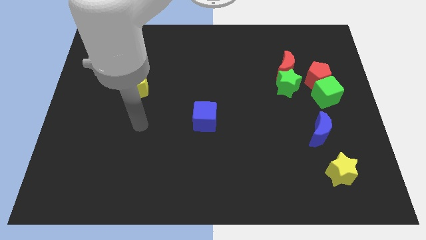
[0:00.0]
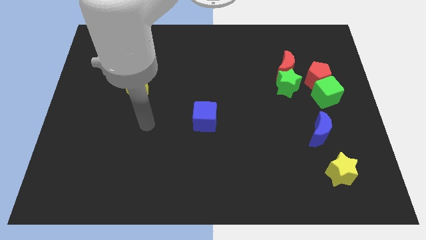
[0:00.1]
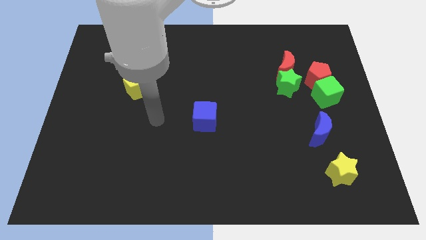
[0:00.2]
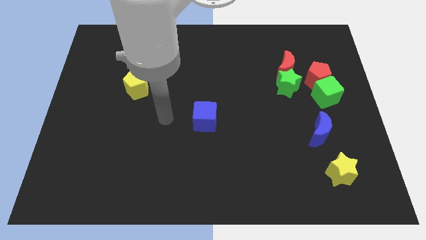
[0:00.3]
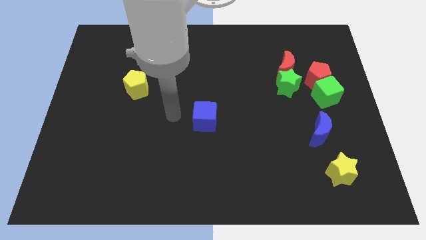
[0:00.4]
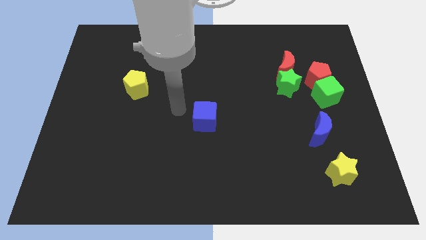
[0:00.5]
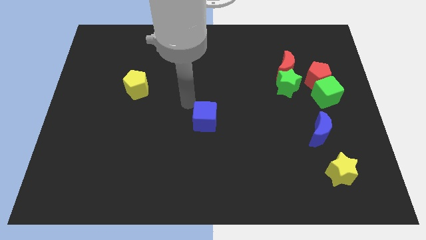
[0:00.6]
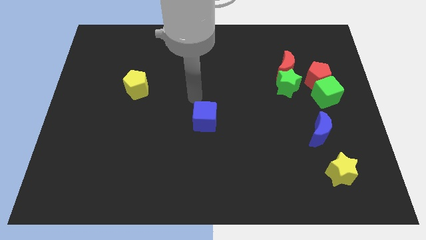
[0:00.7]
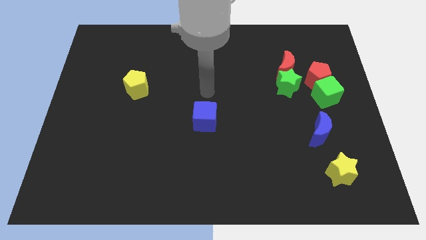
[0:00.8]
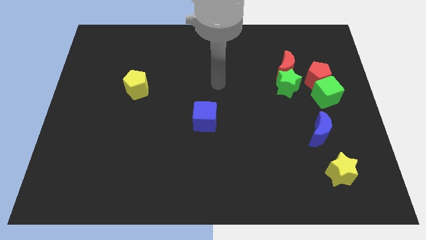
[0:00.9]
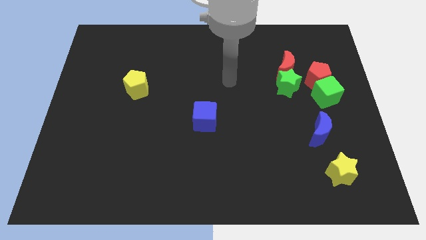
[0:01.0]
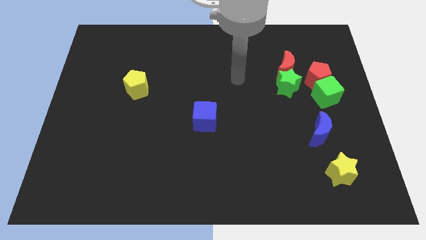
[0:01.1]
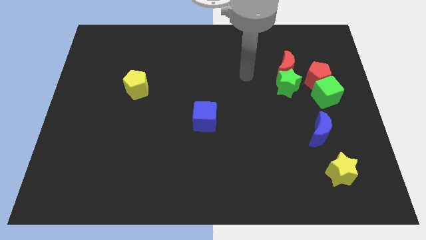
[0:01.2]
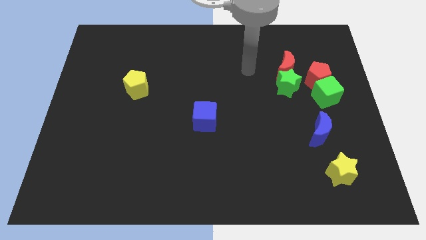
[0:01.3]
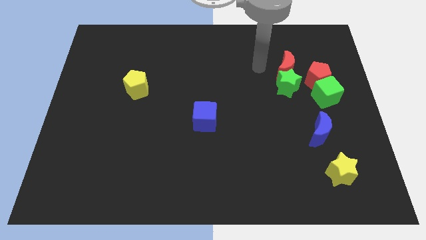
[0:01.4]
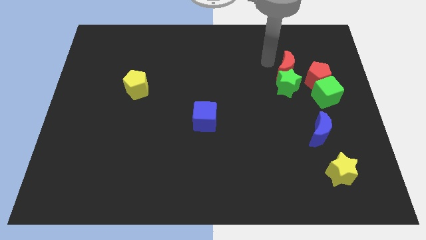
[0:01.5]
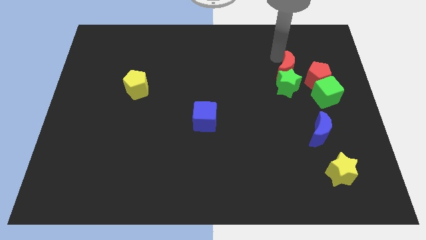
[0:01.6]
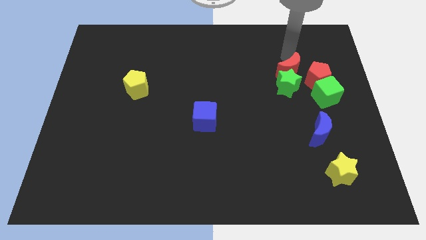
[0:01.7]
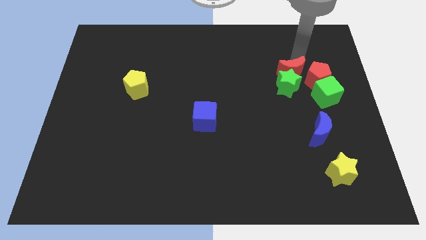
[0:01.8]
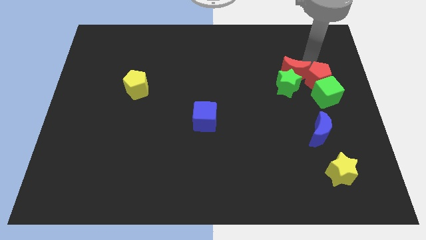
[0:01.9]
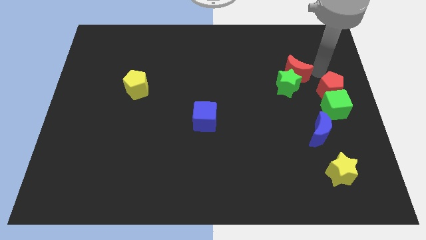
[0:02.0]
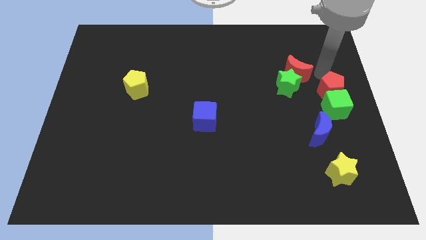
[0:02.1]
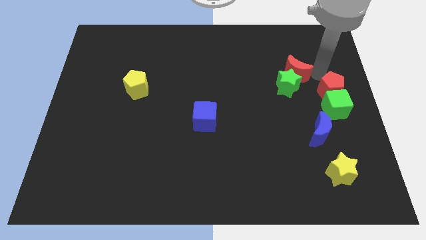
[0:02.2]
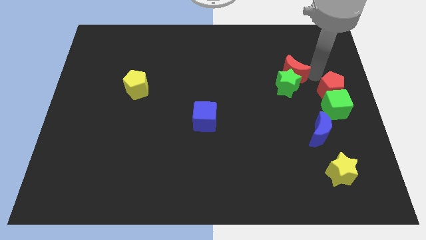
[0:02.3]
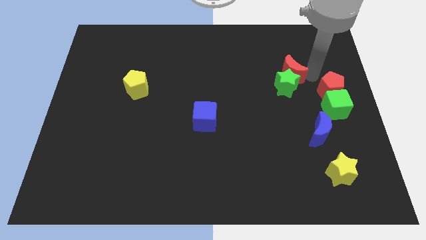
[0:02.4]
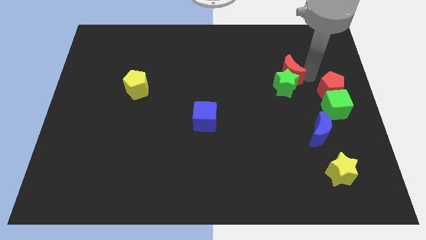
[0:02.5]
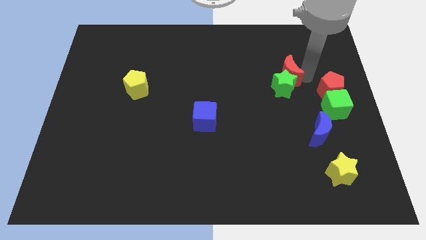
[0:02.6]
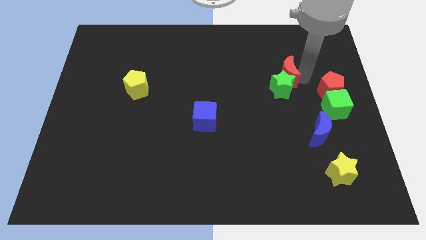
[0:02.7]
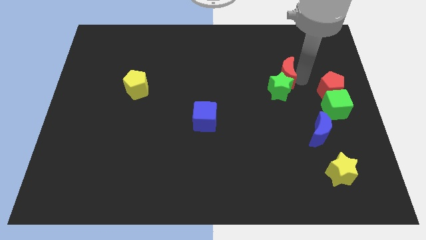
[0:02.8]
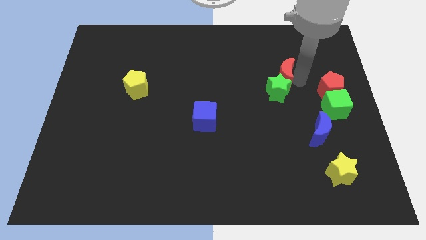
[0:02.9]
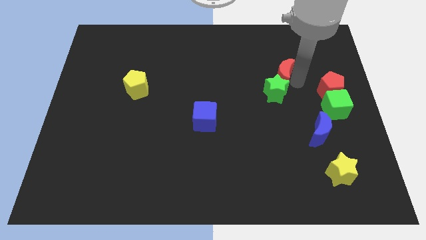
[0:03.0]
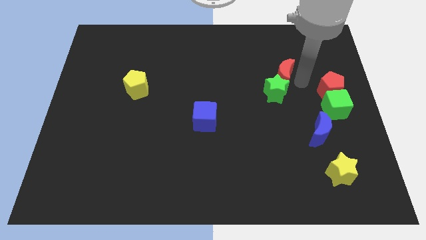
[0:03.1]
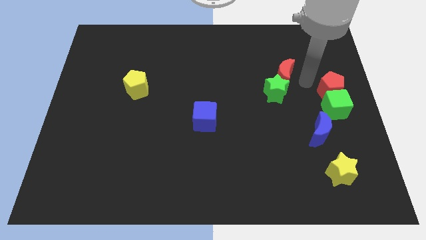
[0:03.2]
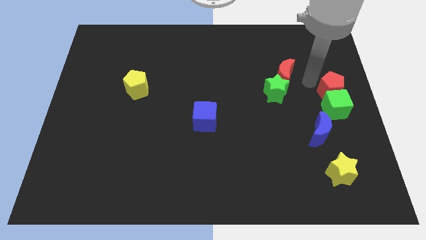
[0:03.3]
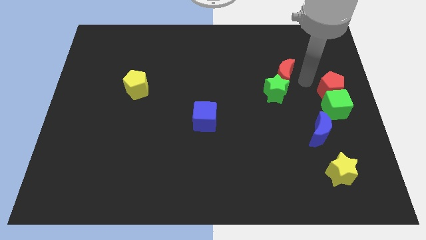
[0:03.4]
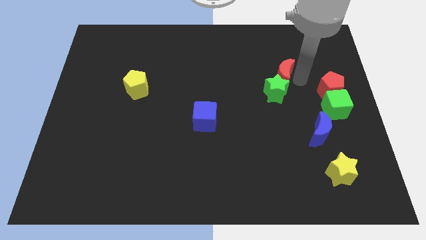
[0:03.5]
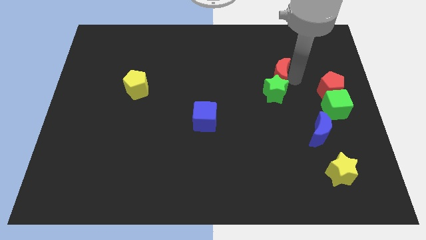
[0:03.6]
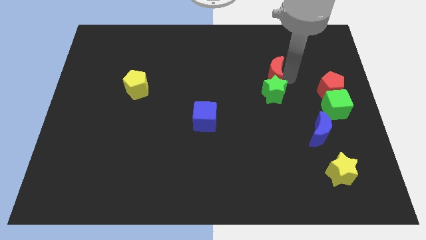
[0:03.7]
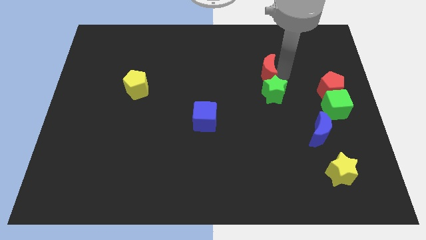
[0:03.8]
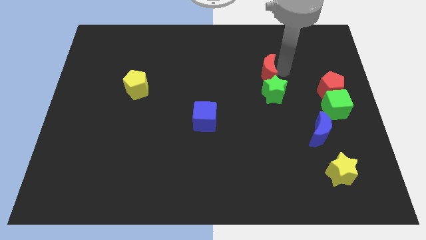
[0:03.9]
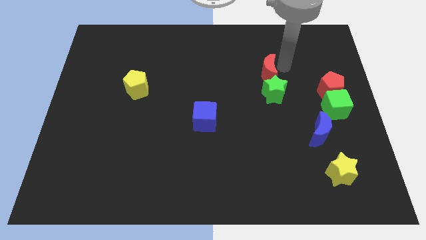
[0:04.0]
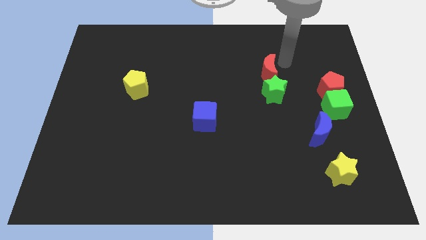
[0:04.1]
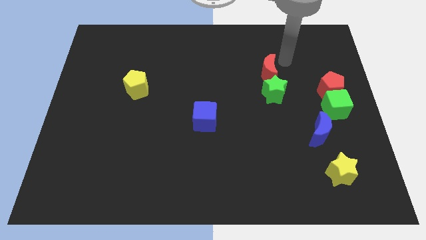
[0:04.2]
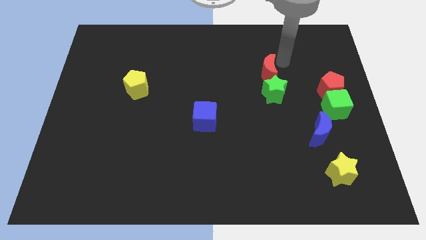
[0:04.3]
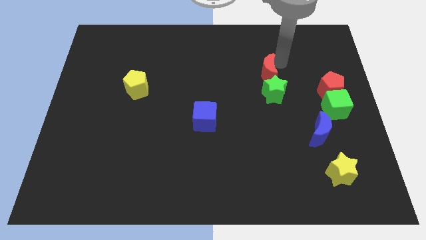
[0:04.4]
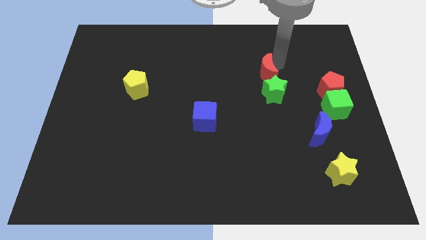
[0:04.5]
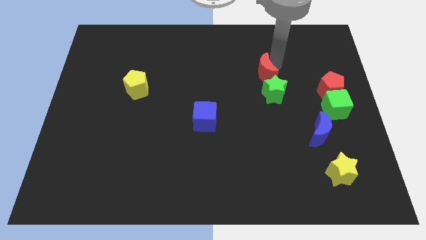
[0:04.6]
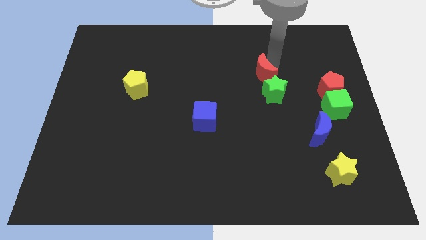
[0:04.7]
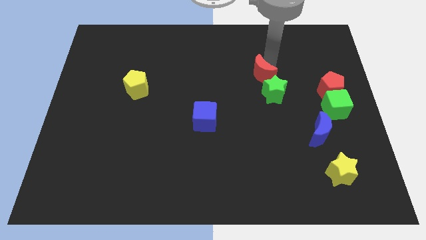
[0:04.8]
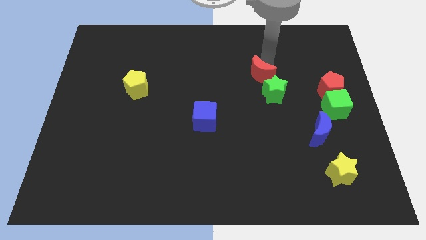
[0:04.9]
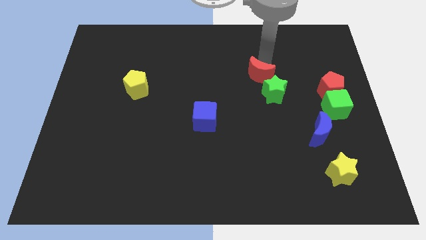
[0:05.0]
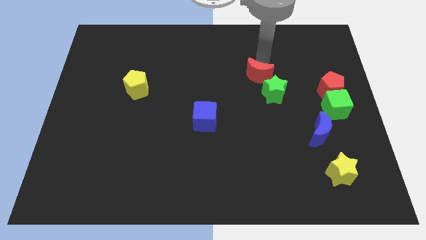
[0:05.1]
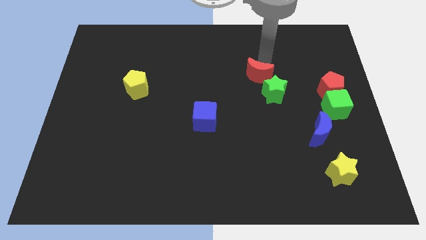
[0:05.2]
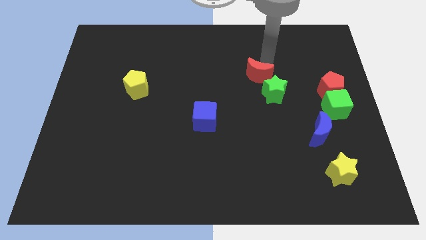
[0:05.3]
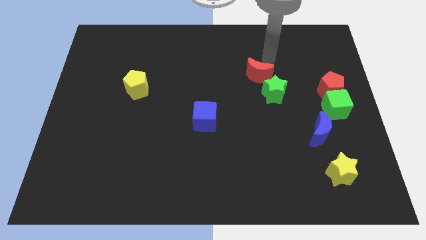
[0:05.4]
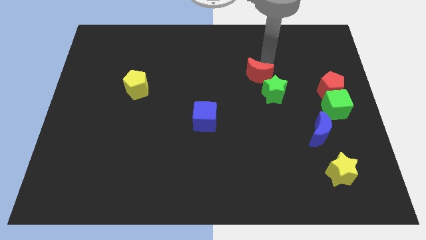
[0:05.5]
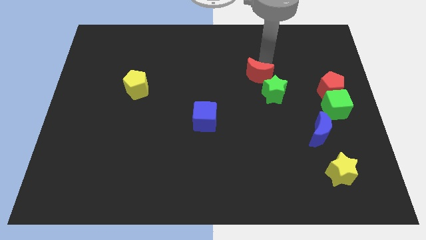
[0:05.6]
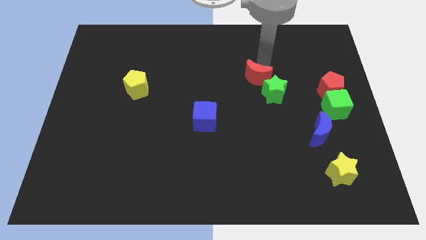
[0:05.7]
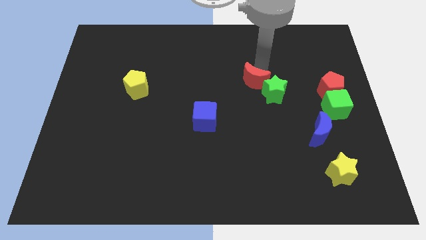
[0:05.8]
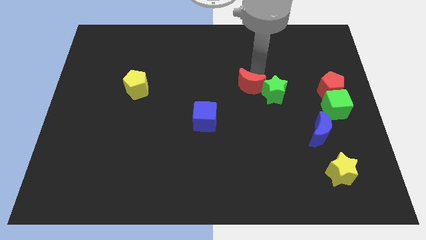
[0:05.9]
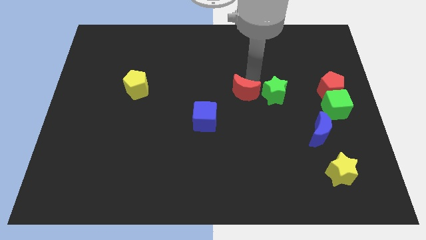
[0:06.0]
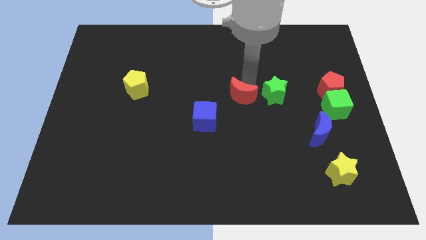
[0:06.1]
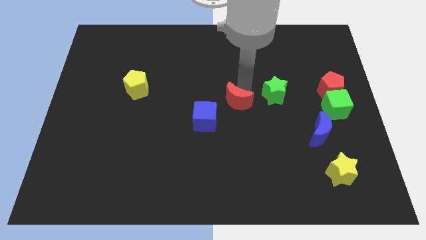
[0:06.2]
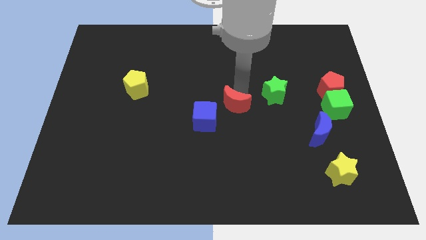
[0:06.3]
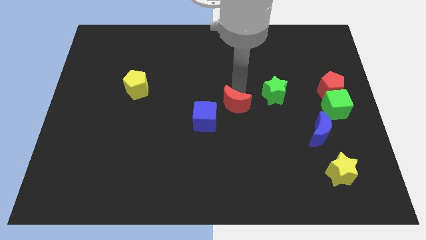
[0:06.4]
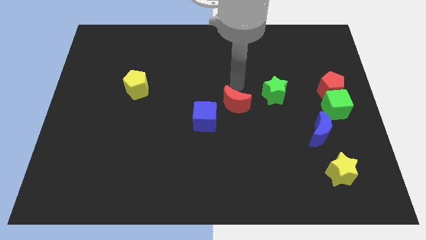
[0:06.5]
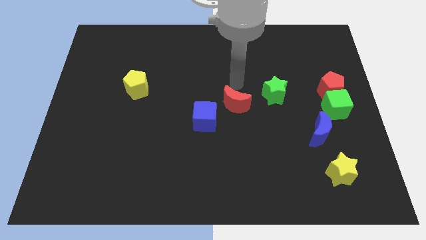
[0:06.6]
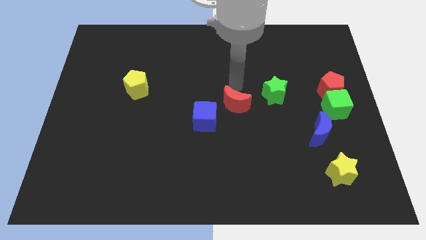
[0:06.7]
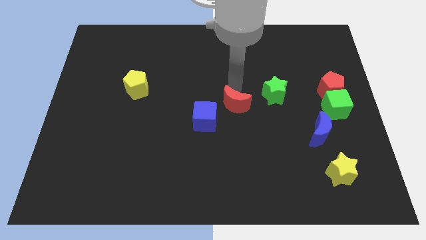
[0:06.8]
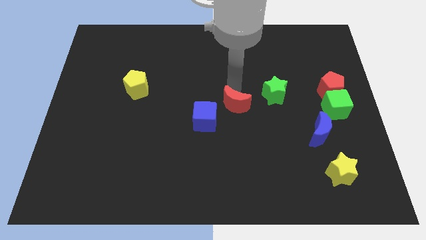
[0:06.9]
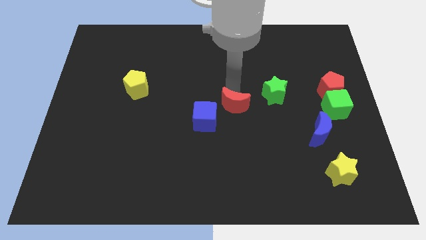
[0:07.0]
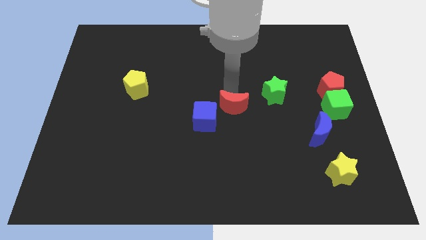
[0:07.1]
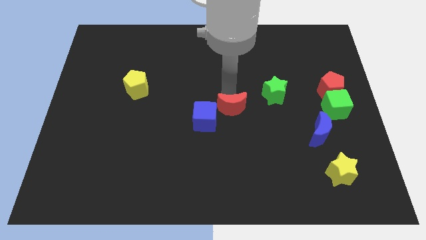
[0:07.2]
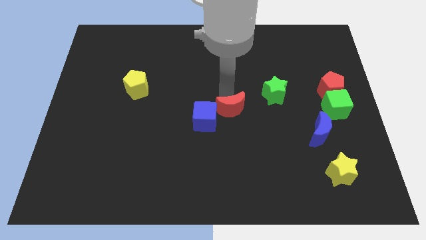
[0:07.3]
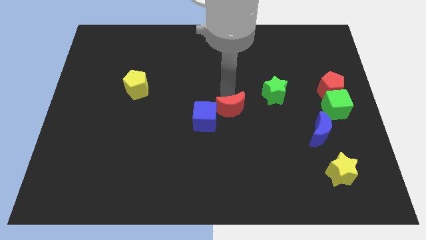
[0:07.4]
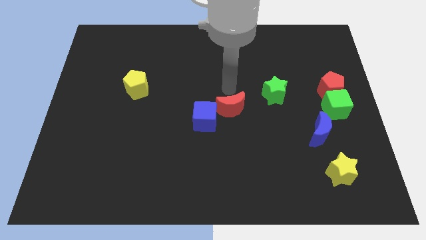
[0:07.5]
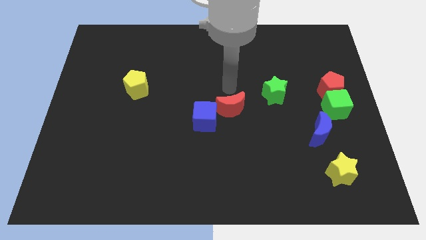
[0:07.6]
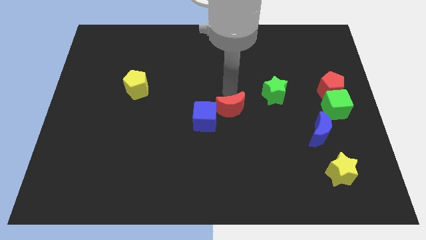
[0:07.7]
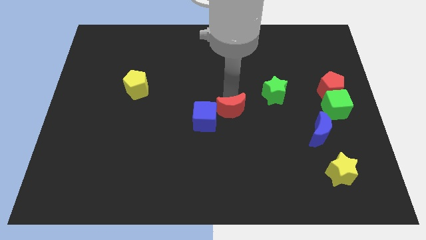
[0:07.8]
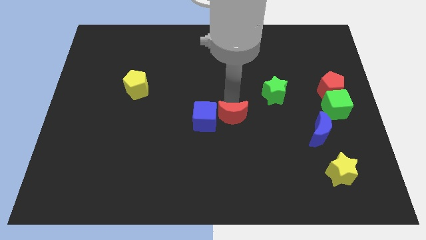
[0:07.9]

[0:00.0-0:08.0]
push the red moon diagonally downwards and left
